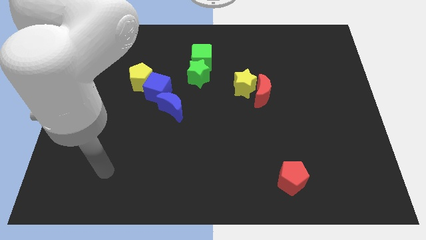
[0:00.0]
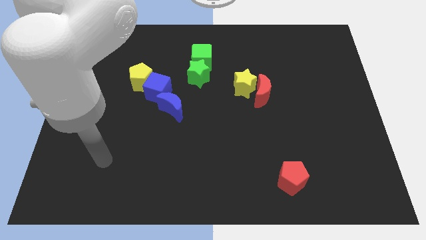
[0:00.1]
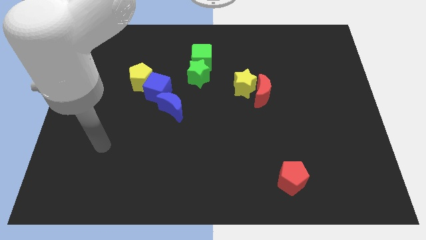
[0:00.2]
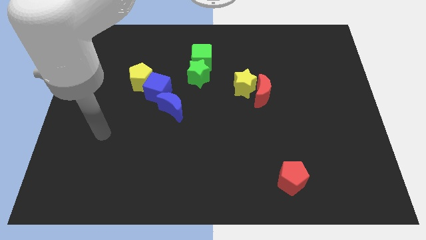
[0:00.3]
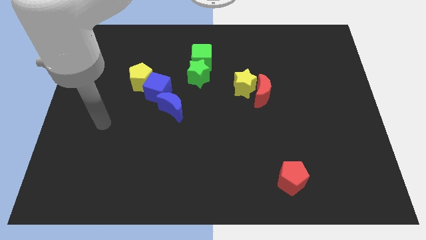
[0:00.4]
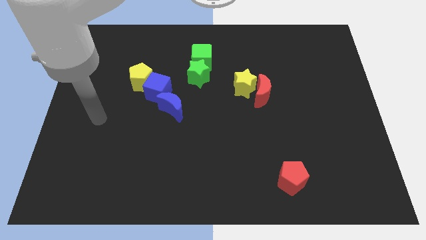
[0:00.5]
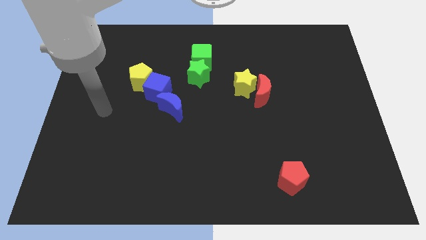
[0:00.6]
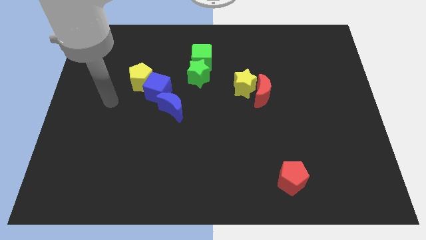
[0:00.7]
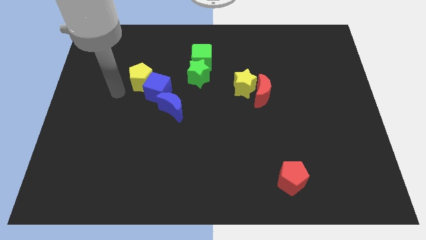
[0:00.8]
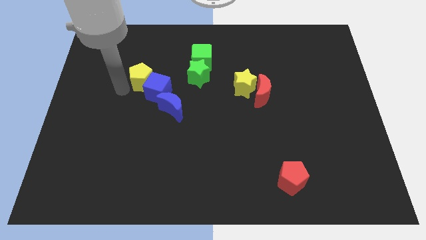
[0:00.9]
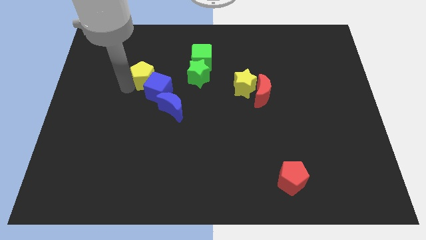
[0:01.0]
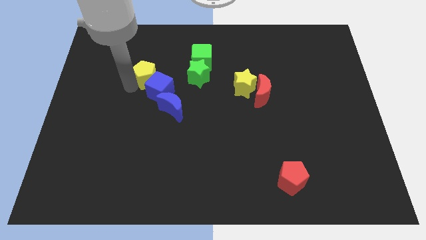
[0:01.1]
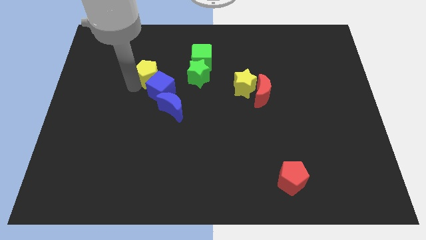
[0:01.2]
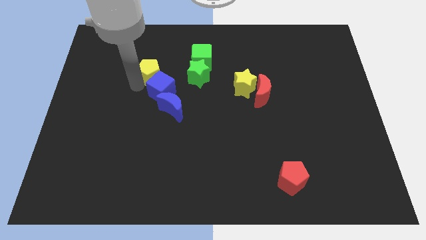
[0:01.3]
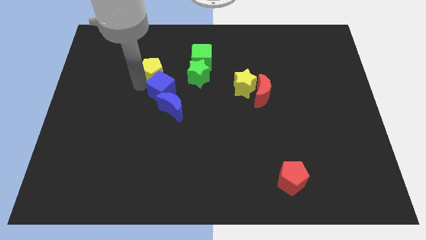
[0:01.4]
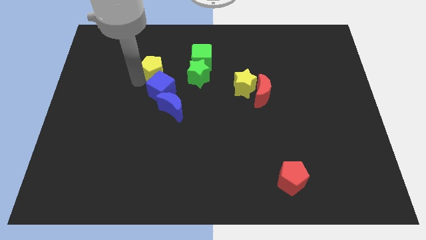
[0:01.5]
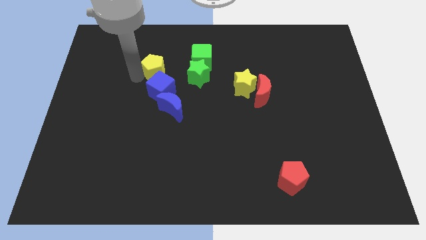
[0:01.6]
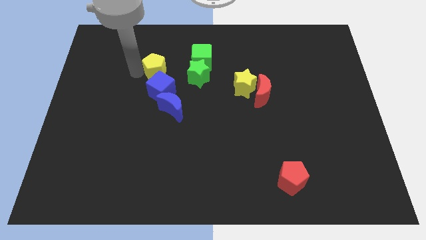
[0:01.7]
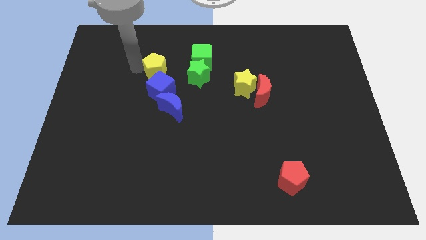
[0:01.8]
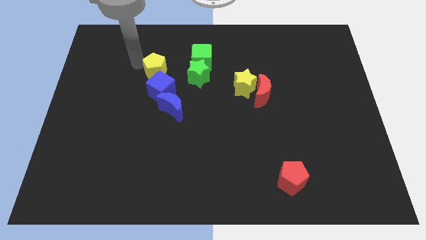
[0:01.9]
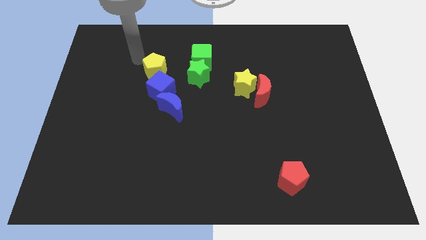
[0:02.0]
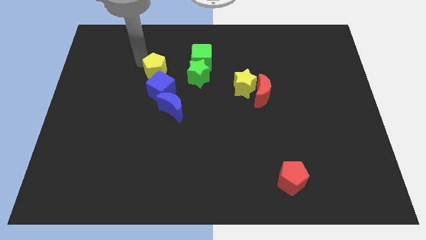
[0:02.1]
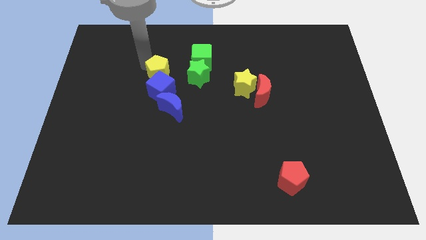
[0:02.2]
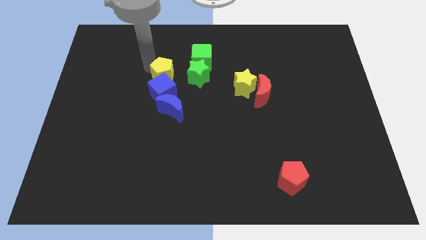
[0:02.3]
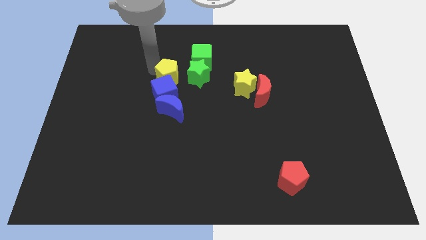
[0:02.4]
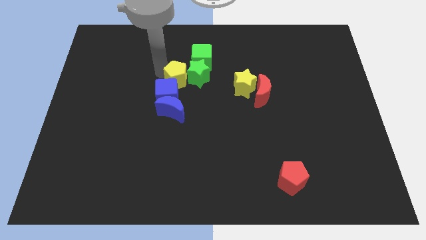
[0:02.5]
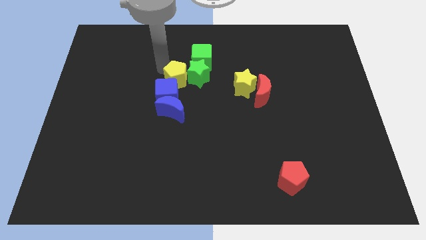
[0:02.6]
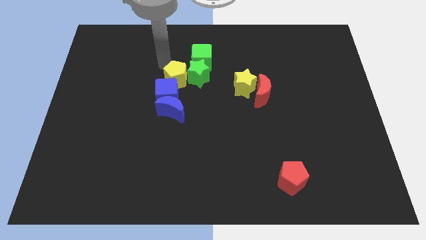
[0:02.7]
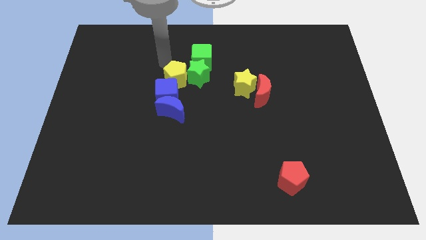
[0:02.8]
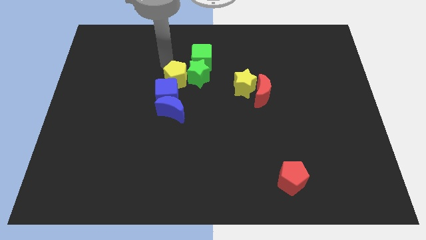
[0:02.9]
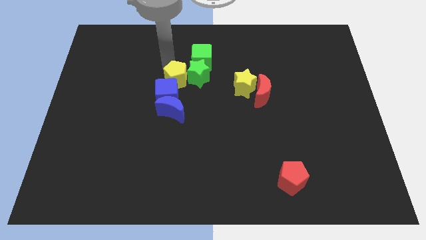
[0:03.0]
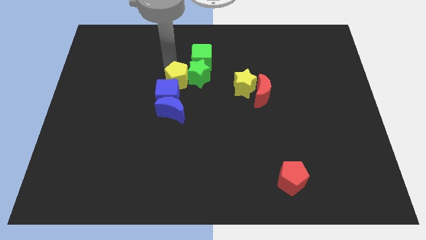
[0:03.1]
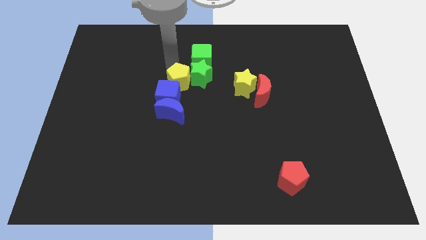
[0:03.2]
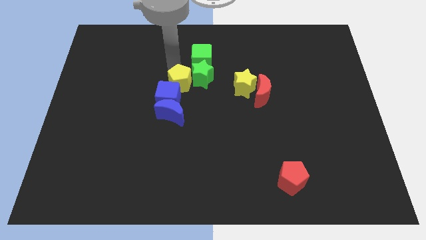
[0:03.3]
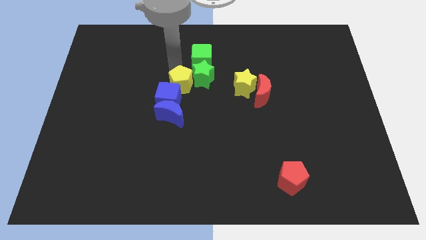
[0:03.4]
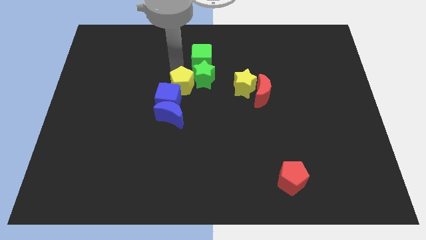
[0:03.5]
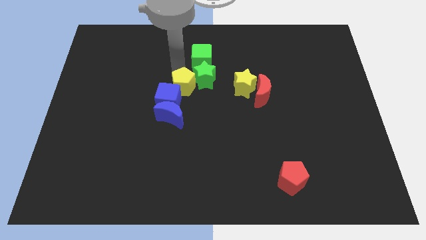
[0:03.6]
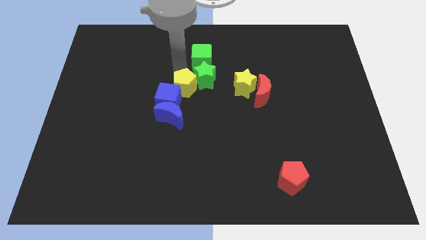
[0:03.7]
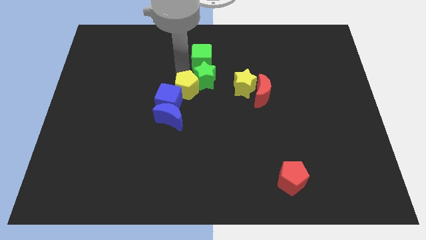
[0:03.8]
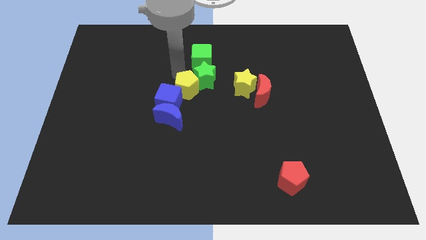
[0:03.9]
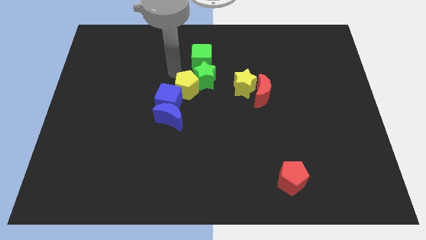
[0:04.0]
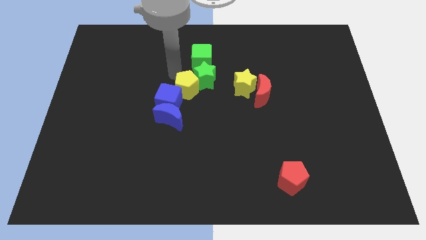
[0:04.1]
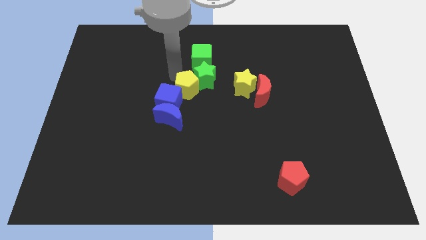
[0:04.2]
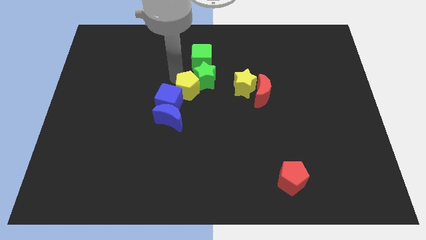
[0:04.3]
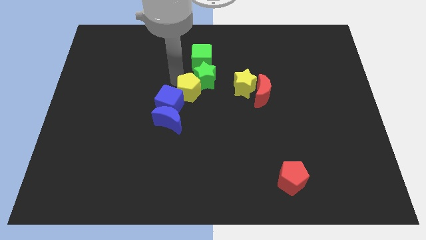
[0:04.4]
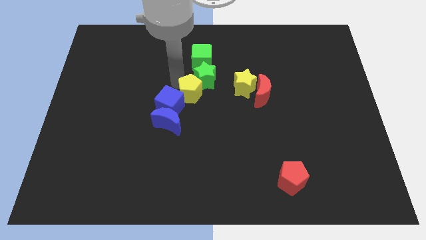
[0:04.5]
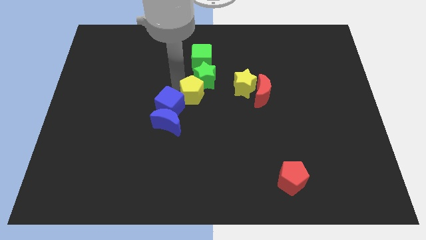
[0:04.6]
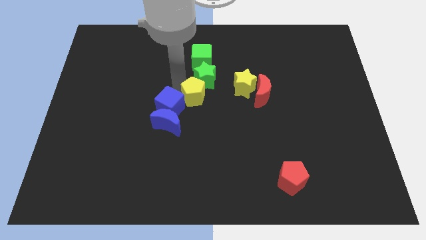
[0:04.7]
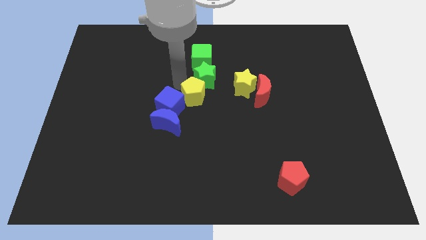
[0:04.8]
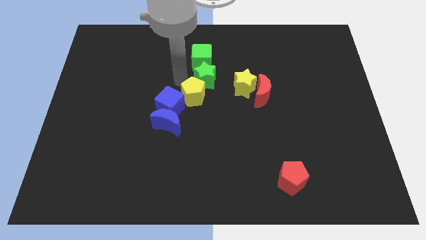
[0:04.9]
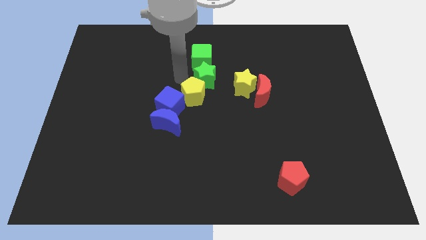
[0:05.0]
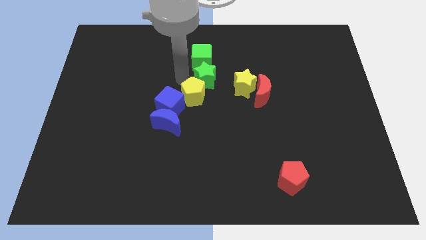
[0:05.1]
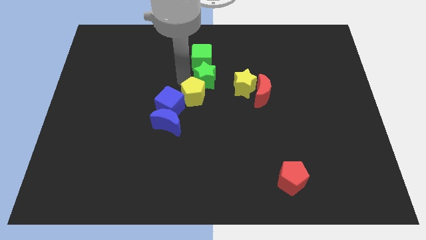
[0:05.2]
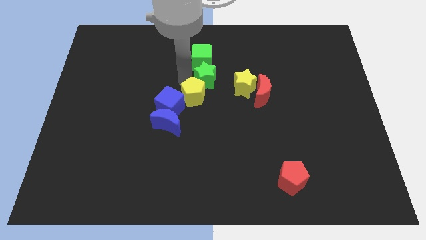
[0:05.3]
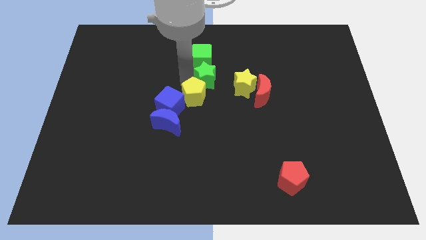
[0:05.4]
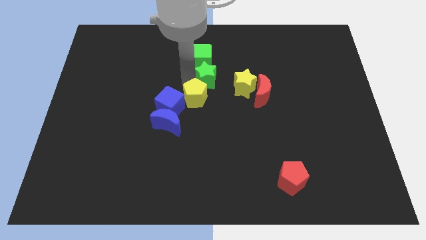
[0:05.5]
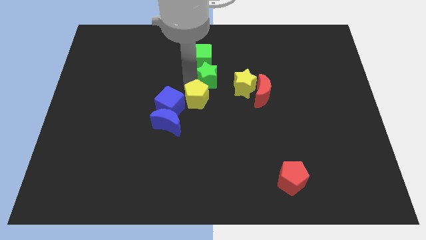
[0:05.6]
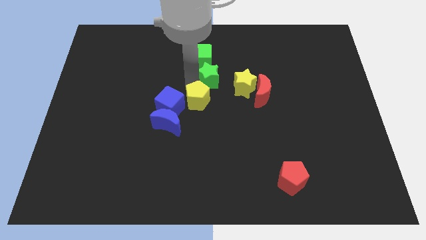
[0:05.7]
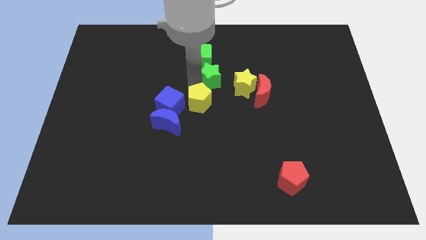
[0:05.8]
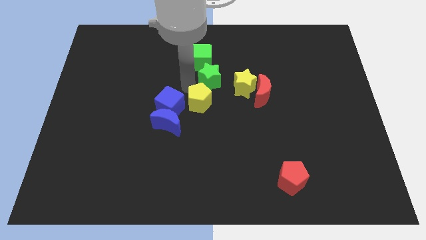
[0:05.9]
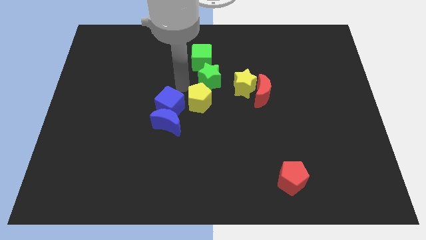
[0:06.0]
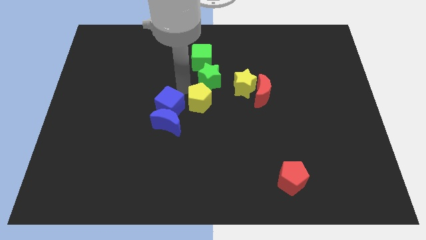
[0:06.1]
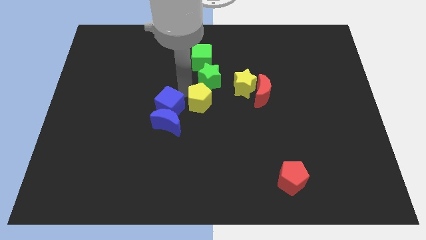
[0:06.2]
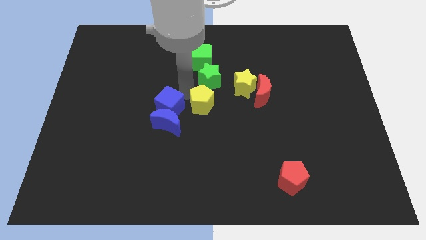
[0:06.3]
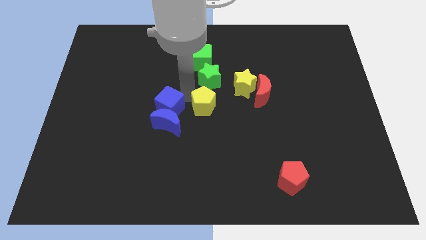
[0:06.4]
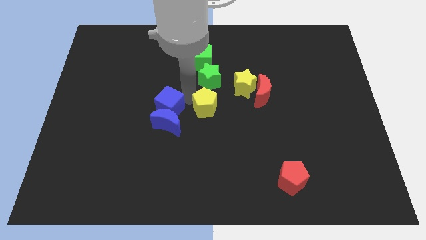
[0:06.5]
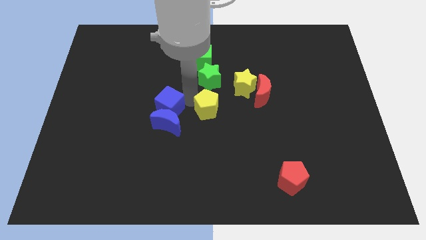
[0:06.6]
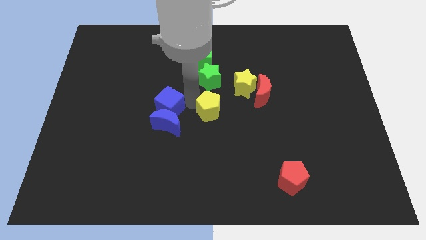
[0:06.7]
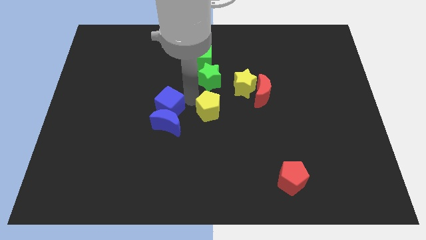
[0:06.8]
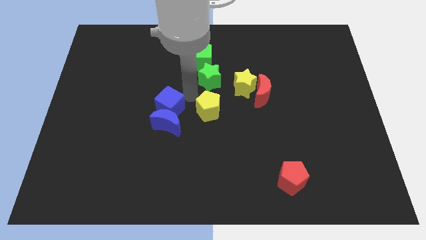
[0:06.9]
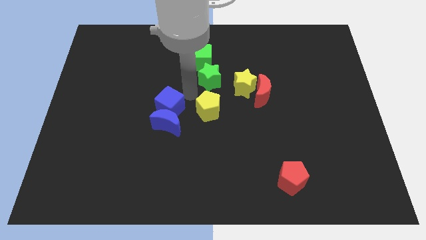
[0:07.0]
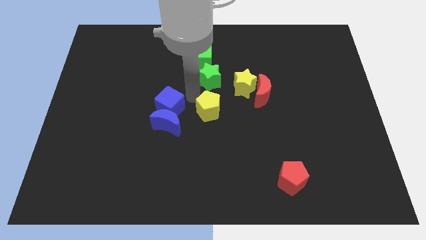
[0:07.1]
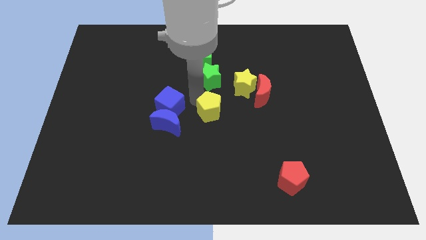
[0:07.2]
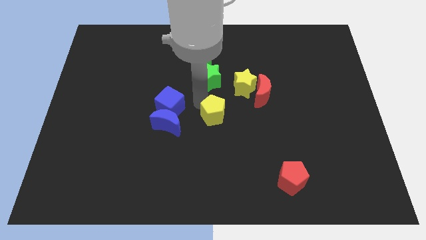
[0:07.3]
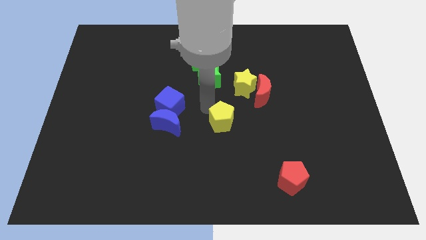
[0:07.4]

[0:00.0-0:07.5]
slide the yellow pentagon downwards and then right

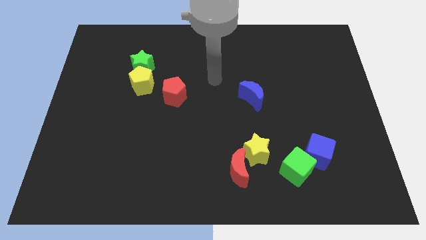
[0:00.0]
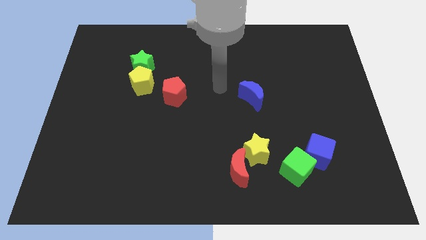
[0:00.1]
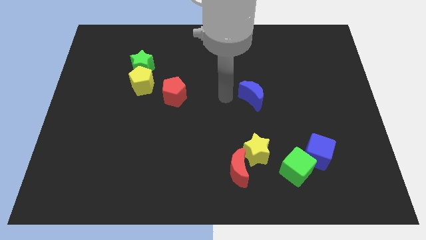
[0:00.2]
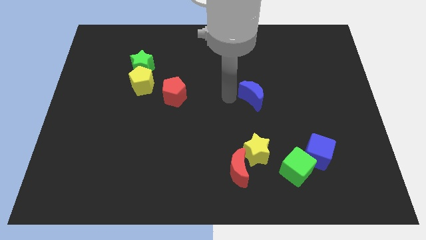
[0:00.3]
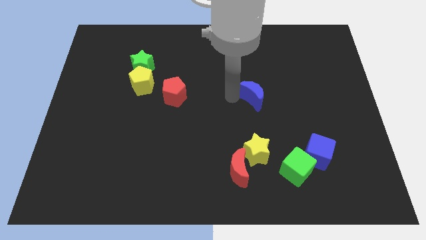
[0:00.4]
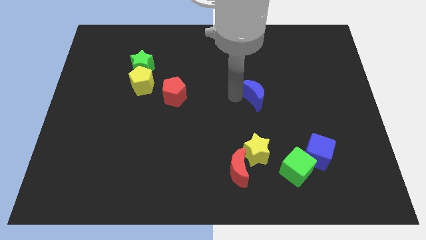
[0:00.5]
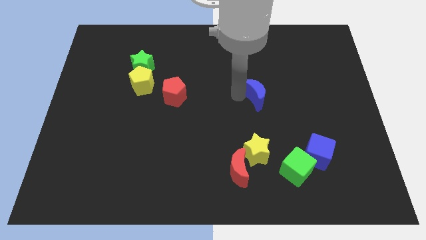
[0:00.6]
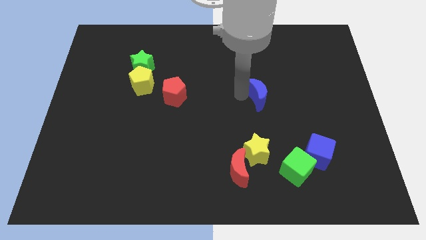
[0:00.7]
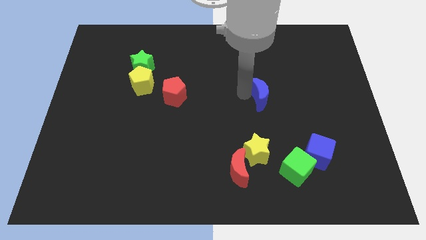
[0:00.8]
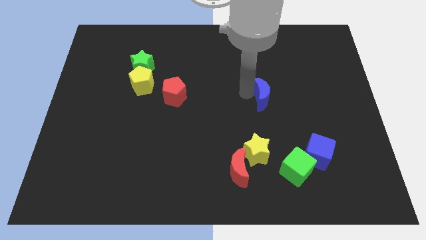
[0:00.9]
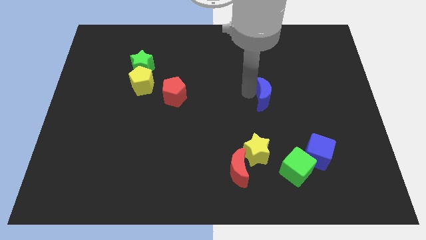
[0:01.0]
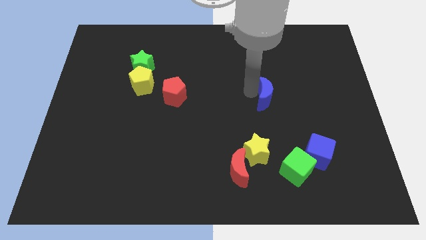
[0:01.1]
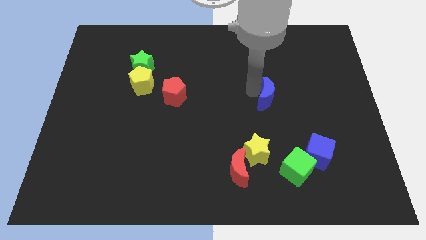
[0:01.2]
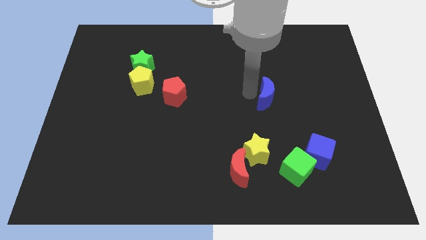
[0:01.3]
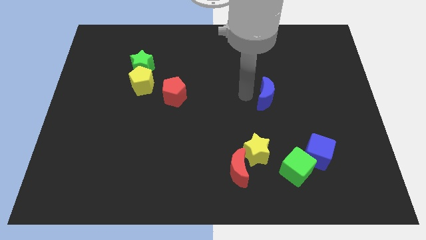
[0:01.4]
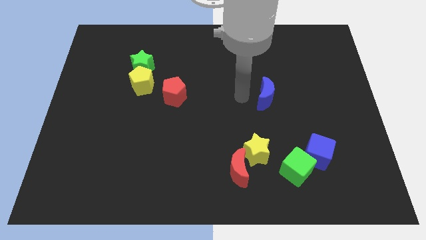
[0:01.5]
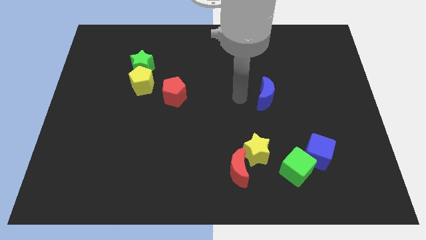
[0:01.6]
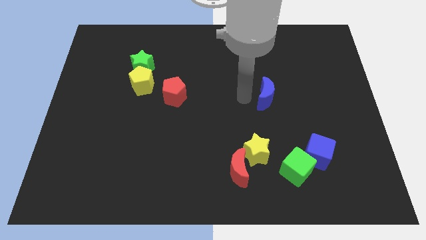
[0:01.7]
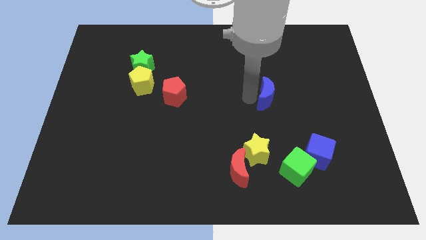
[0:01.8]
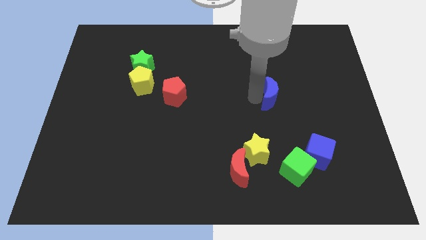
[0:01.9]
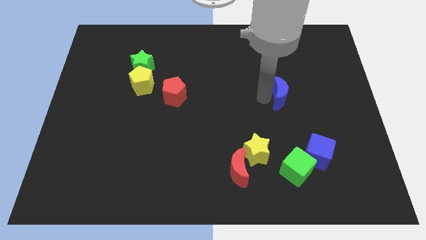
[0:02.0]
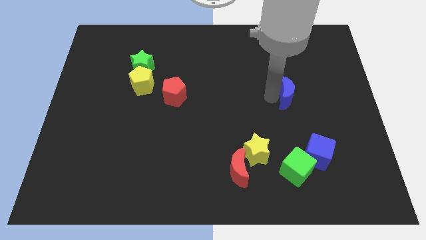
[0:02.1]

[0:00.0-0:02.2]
slightly slide the blue moon to the right
